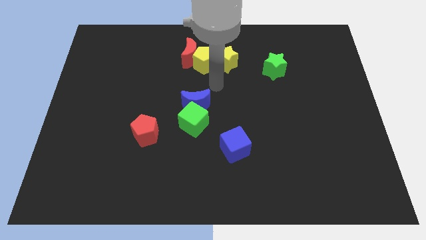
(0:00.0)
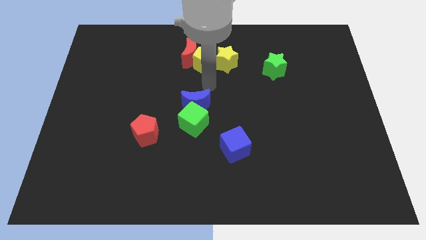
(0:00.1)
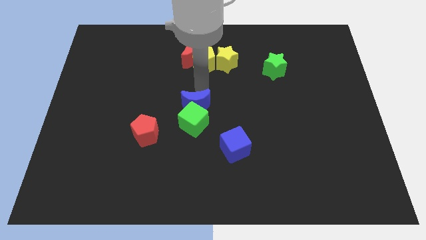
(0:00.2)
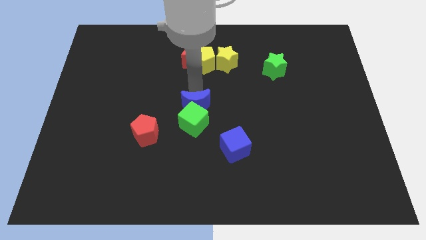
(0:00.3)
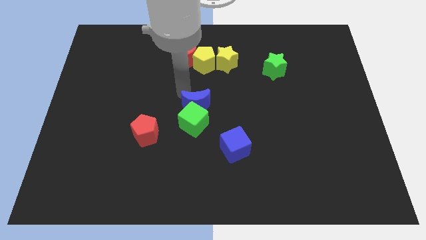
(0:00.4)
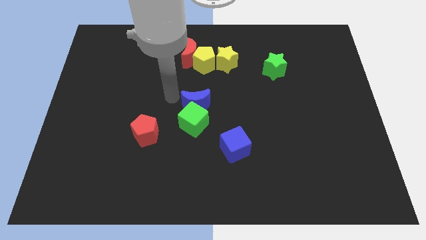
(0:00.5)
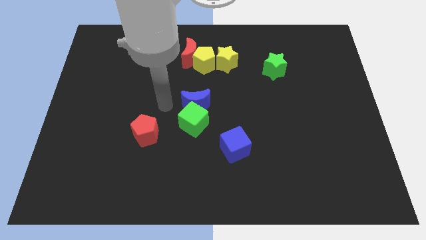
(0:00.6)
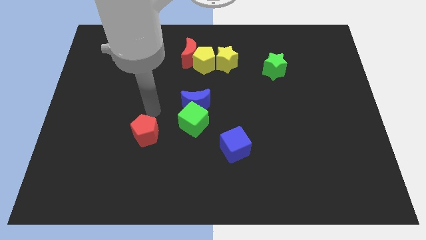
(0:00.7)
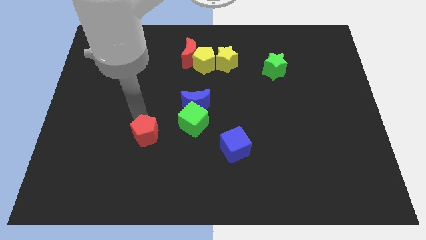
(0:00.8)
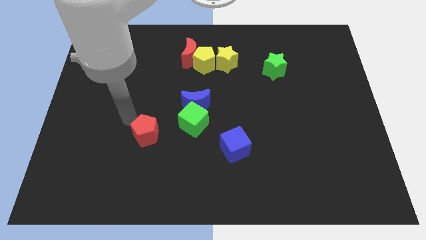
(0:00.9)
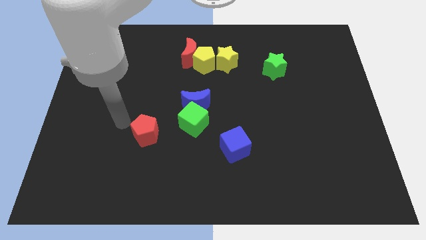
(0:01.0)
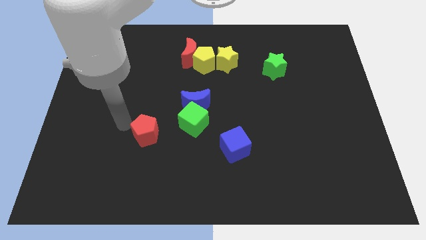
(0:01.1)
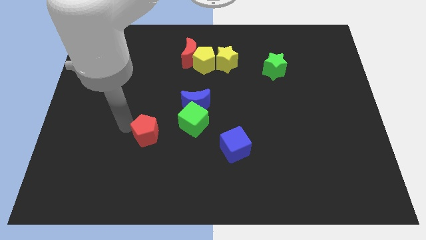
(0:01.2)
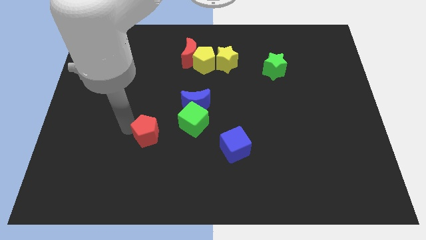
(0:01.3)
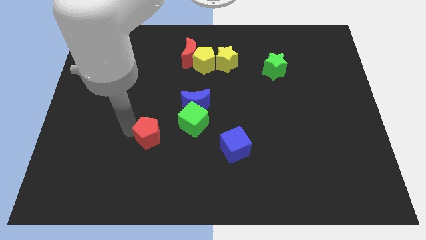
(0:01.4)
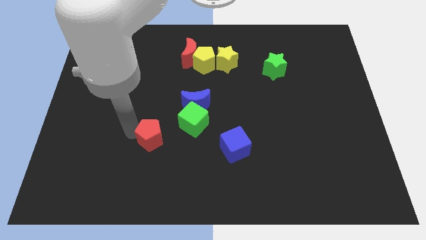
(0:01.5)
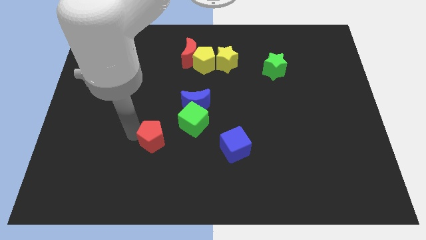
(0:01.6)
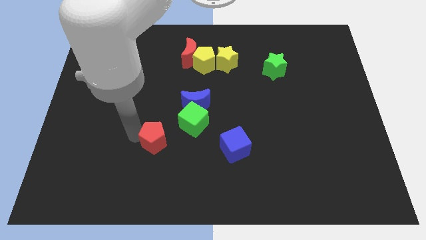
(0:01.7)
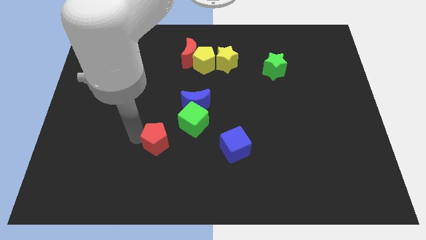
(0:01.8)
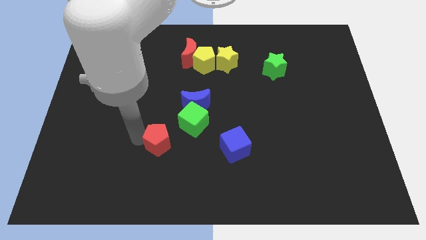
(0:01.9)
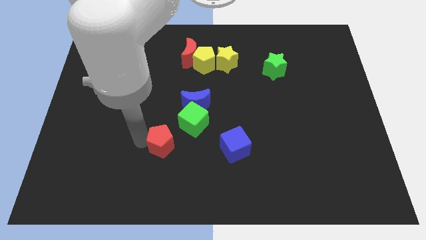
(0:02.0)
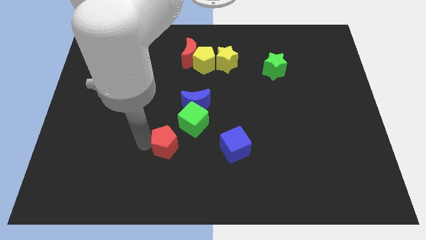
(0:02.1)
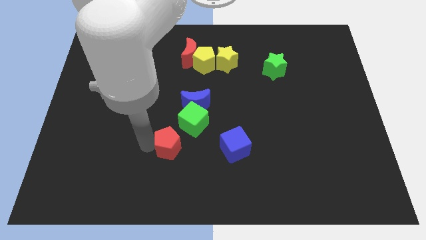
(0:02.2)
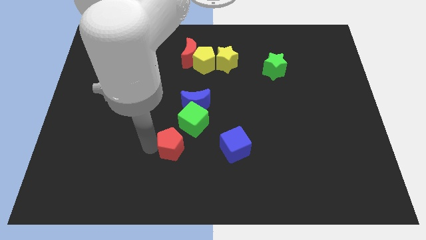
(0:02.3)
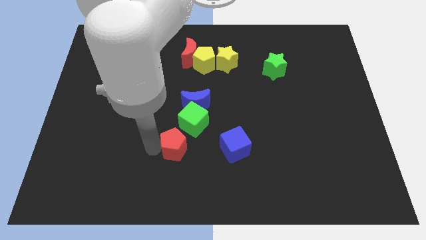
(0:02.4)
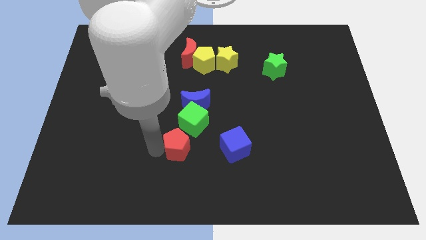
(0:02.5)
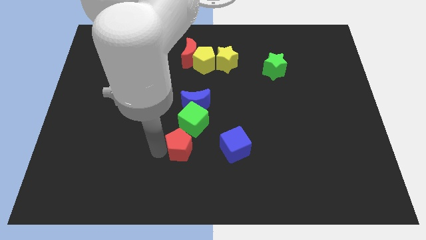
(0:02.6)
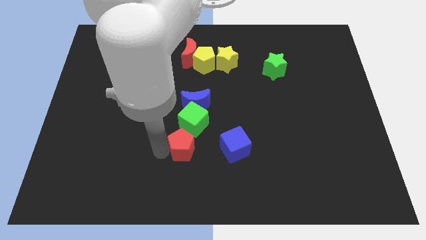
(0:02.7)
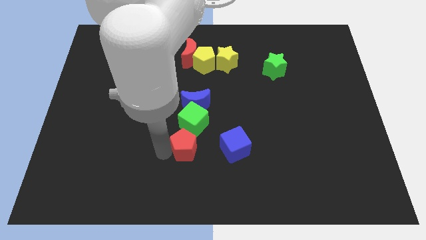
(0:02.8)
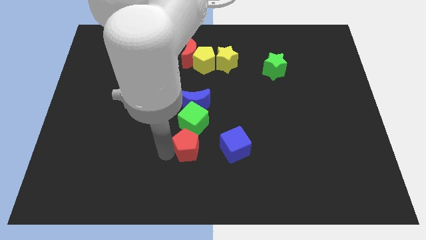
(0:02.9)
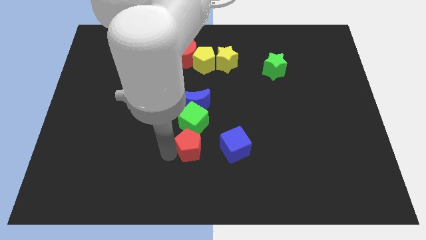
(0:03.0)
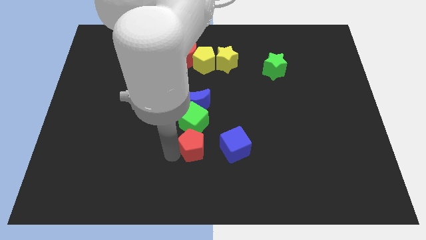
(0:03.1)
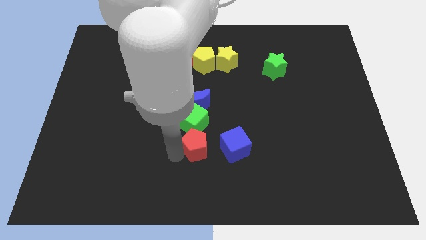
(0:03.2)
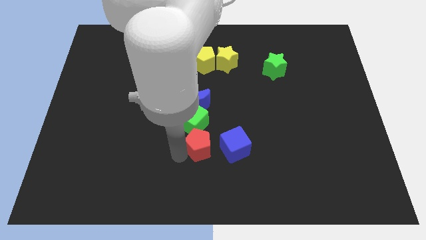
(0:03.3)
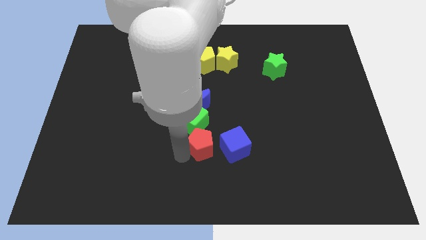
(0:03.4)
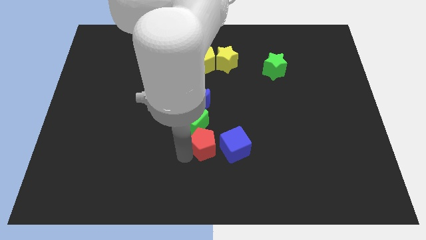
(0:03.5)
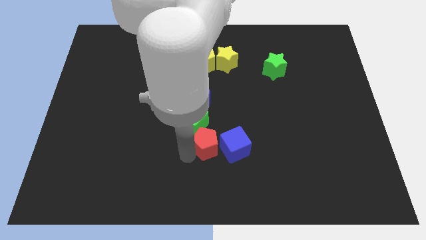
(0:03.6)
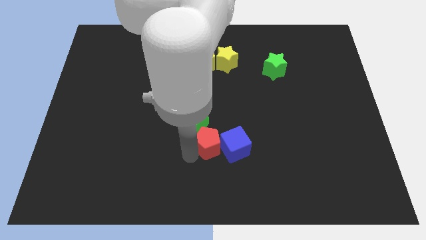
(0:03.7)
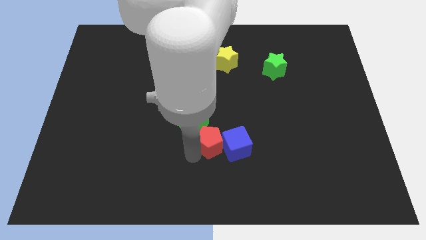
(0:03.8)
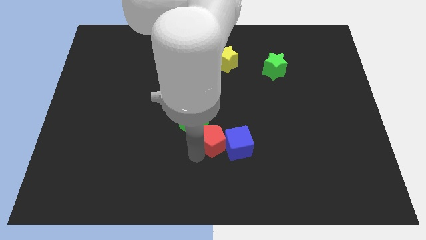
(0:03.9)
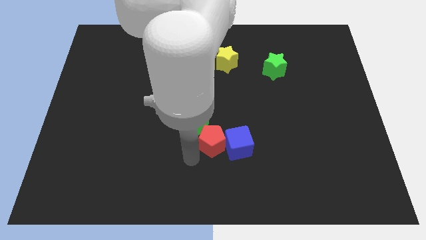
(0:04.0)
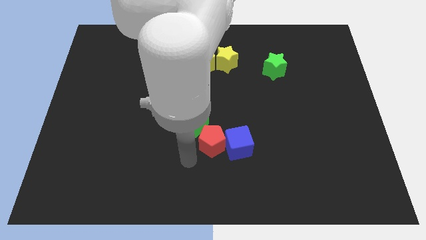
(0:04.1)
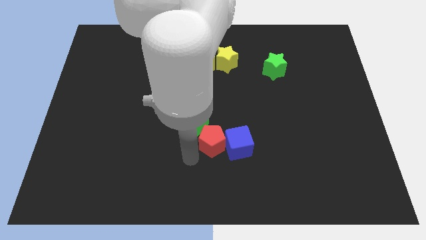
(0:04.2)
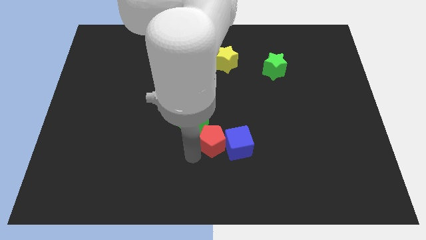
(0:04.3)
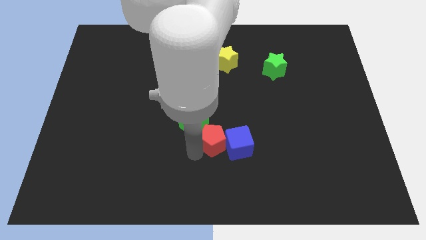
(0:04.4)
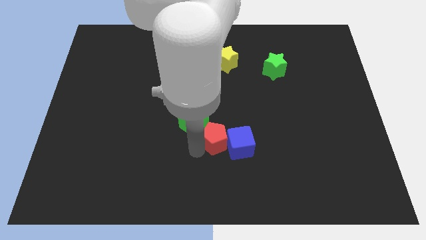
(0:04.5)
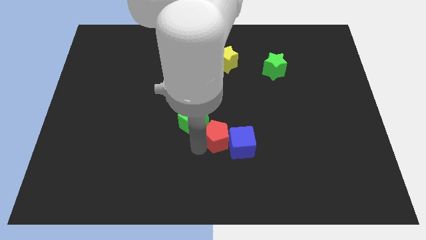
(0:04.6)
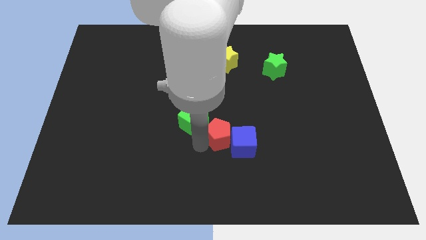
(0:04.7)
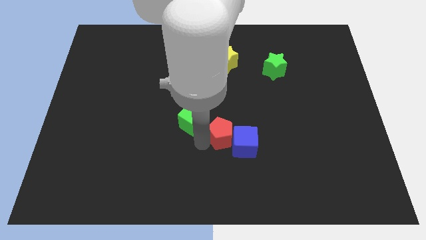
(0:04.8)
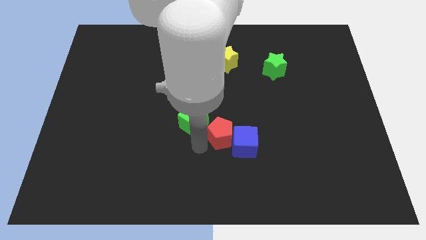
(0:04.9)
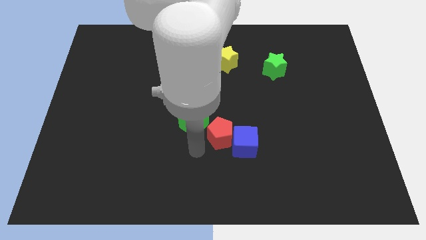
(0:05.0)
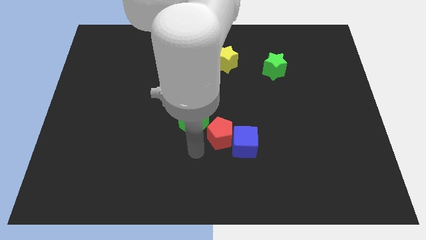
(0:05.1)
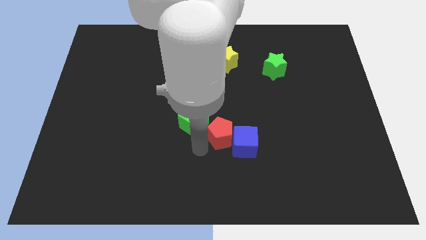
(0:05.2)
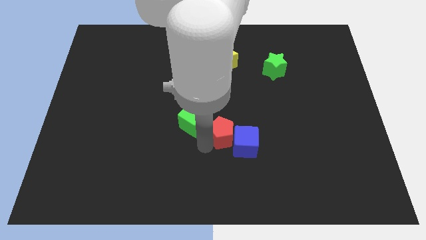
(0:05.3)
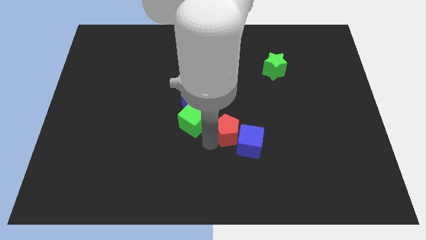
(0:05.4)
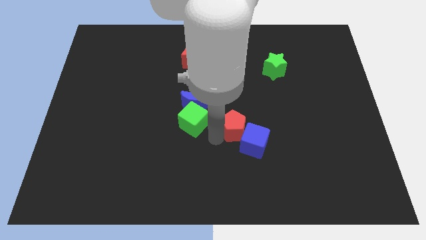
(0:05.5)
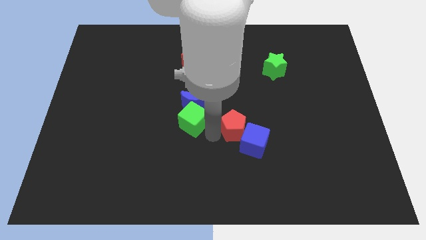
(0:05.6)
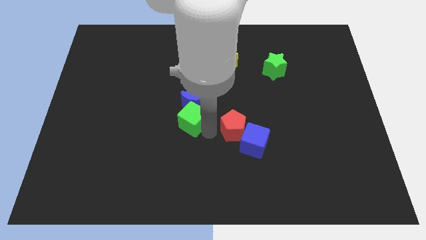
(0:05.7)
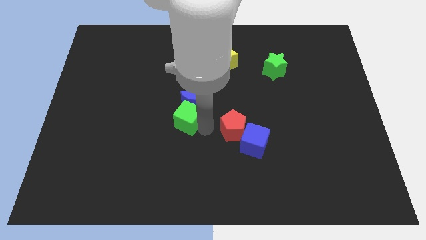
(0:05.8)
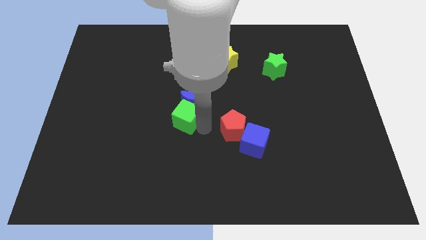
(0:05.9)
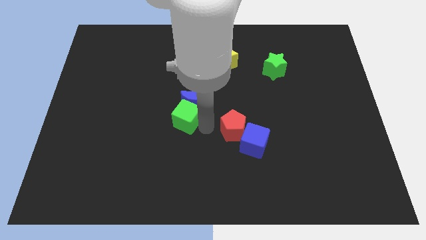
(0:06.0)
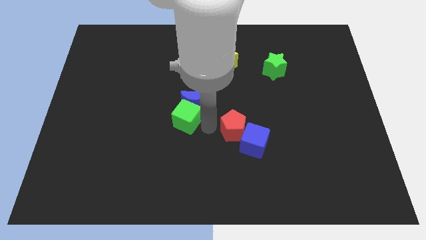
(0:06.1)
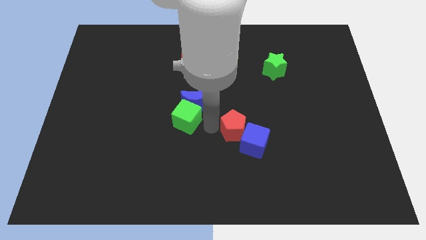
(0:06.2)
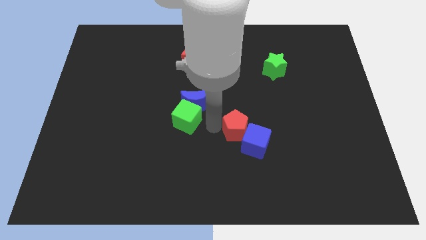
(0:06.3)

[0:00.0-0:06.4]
slide the red pentagon to the right

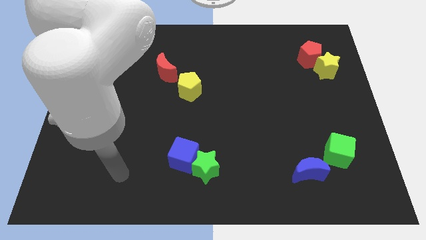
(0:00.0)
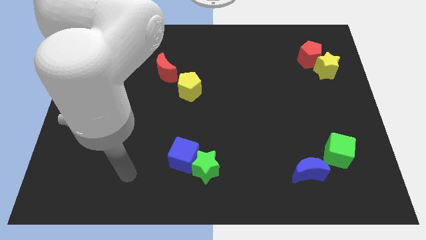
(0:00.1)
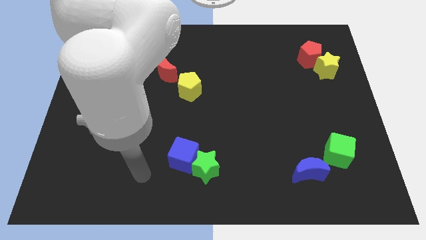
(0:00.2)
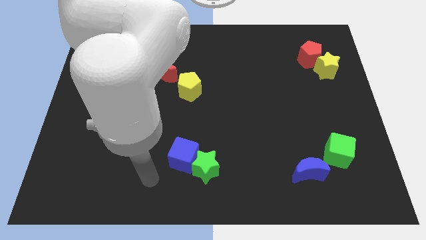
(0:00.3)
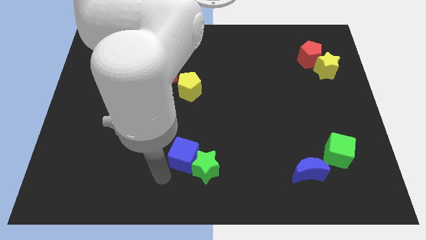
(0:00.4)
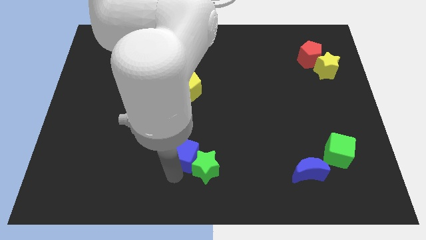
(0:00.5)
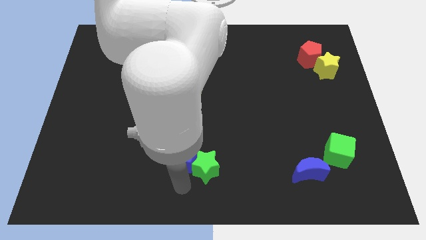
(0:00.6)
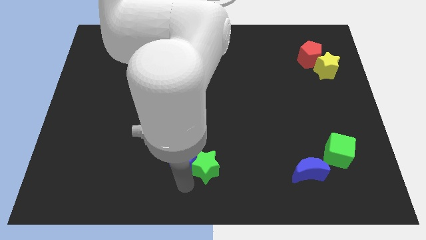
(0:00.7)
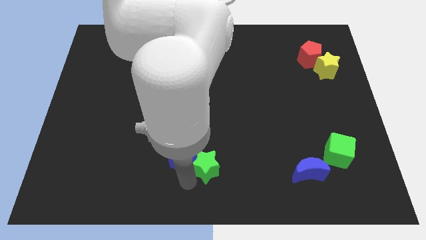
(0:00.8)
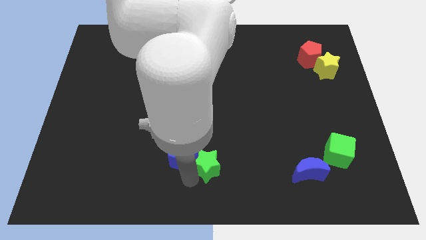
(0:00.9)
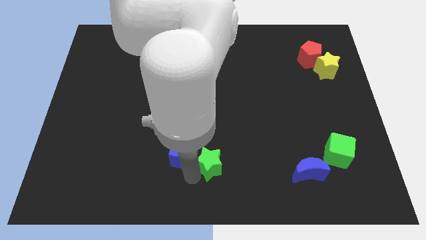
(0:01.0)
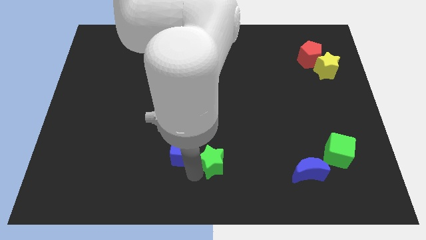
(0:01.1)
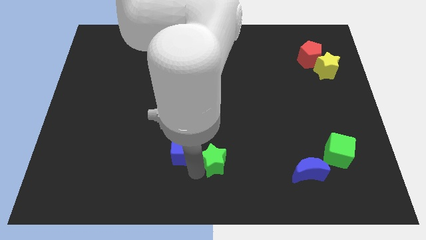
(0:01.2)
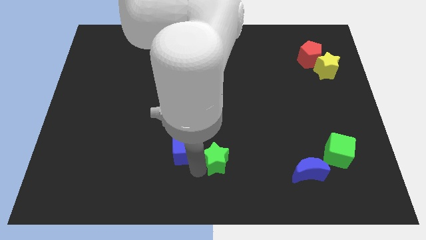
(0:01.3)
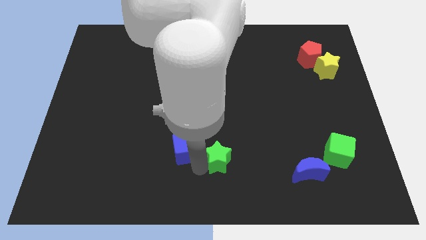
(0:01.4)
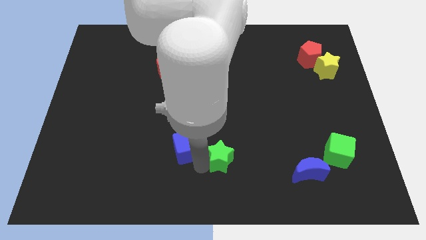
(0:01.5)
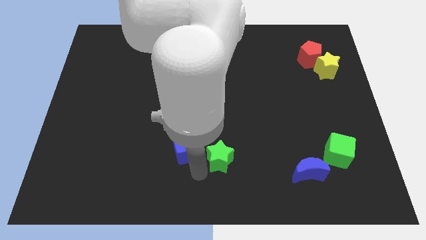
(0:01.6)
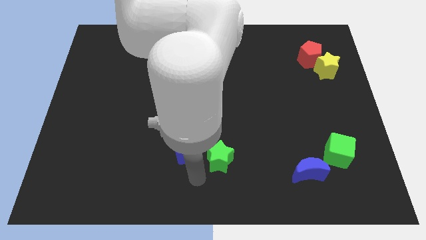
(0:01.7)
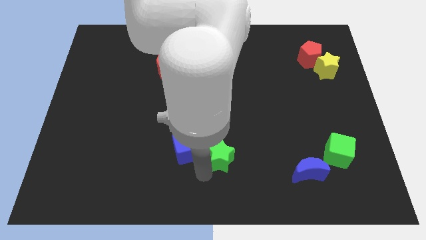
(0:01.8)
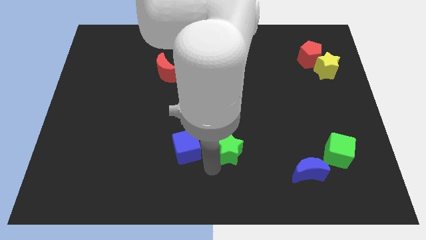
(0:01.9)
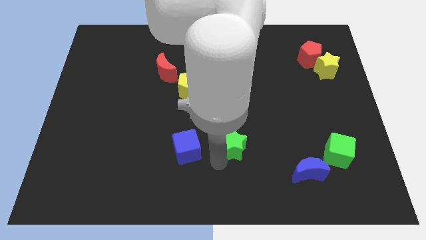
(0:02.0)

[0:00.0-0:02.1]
push the green star slightly diagonally up and to the right
